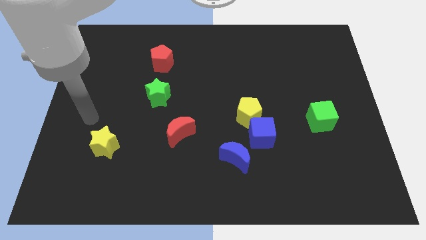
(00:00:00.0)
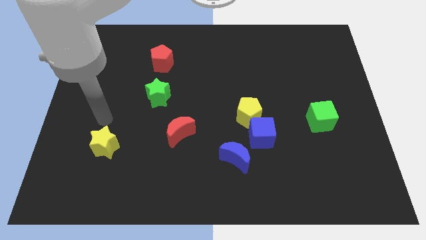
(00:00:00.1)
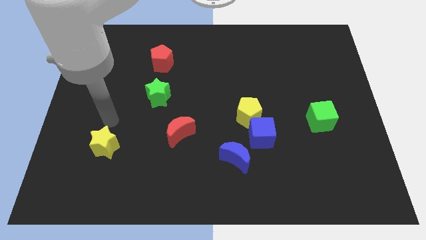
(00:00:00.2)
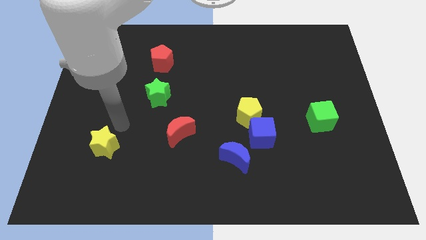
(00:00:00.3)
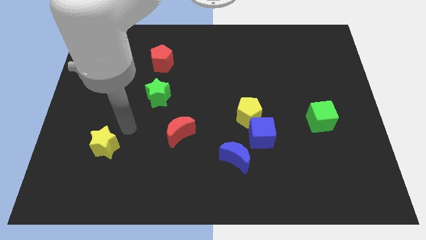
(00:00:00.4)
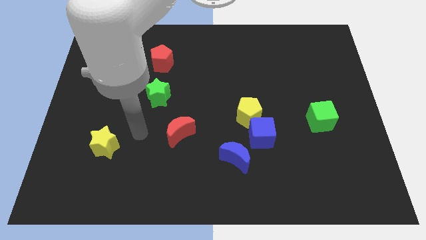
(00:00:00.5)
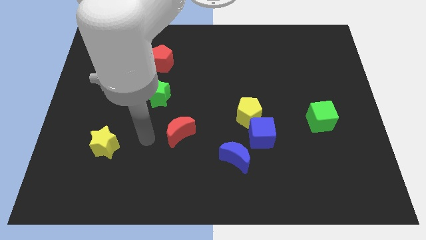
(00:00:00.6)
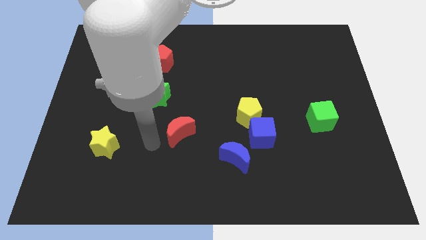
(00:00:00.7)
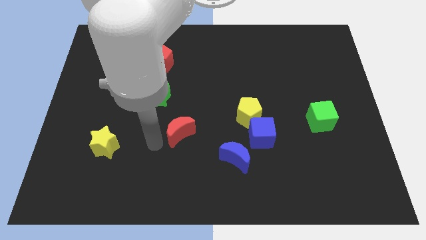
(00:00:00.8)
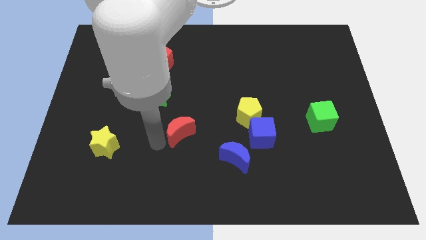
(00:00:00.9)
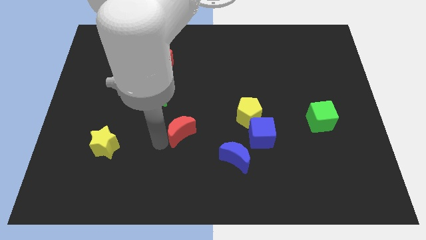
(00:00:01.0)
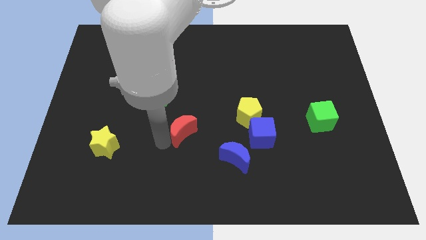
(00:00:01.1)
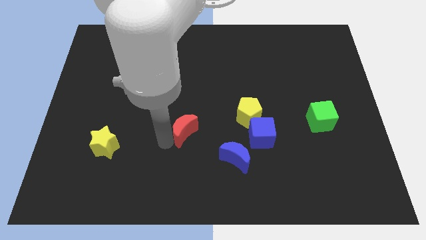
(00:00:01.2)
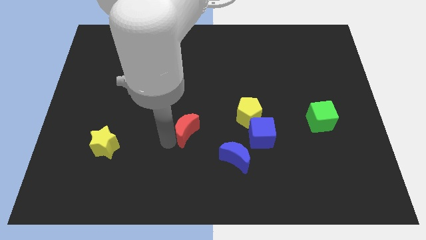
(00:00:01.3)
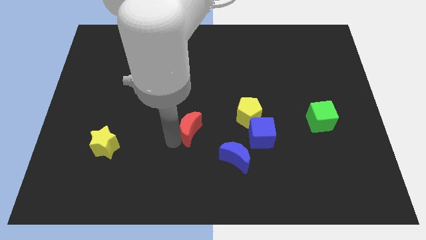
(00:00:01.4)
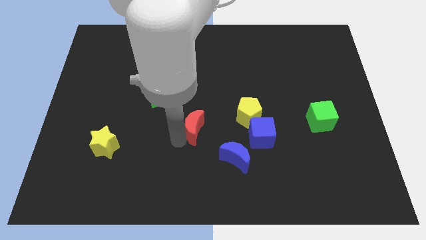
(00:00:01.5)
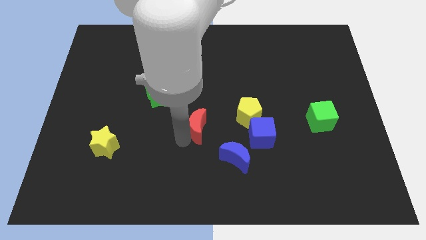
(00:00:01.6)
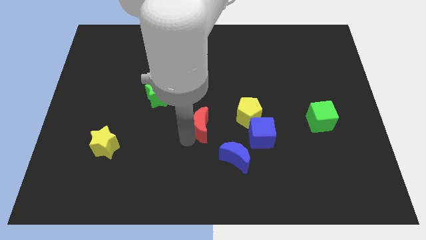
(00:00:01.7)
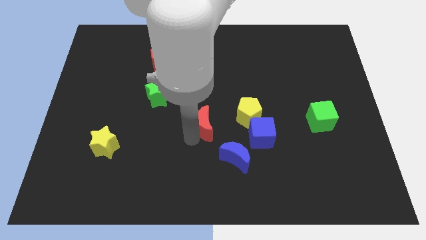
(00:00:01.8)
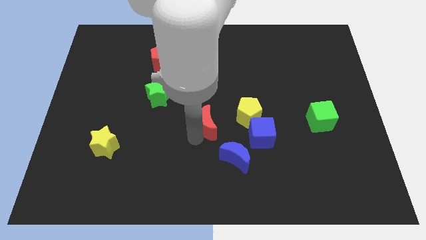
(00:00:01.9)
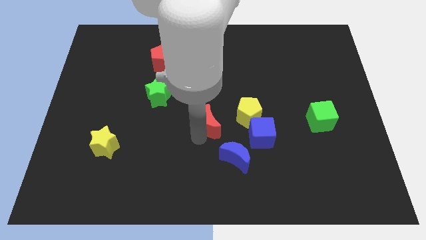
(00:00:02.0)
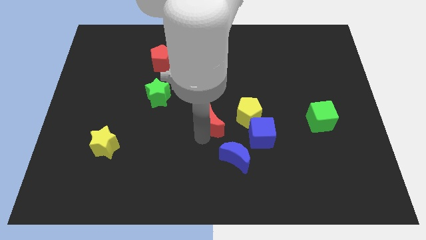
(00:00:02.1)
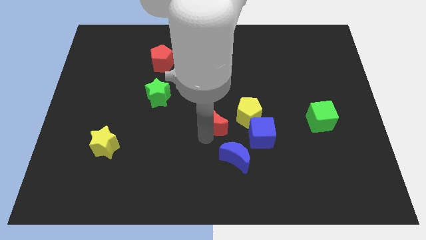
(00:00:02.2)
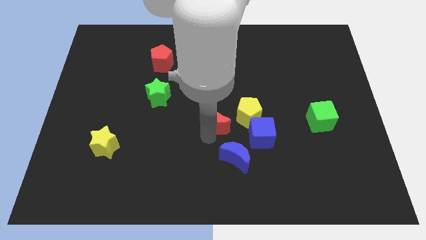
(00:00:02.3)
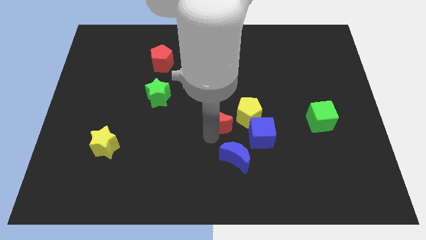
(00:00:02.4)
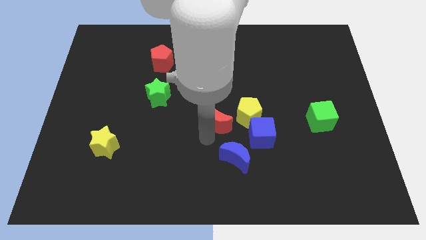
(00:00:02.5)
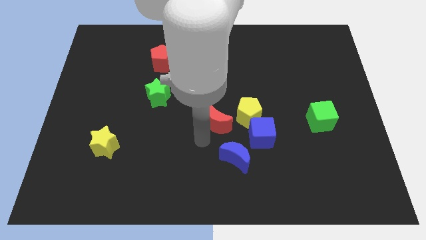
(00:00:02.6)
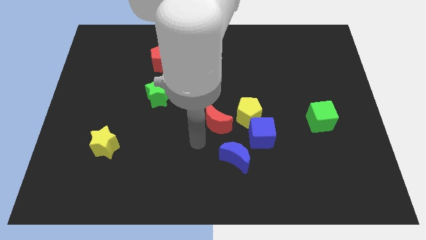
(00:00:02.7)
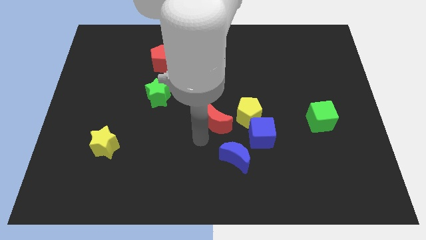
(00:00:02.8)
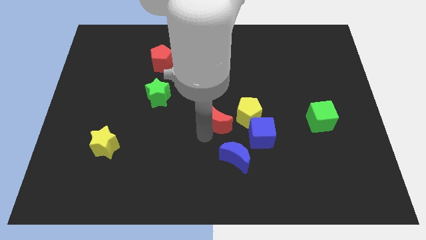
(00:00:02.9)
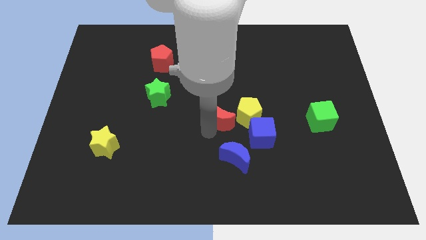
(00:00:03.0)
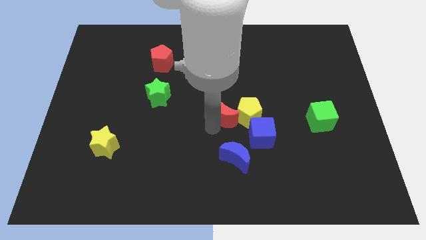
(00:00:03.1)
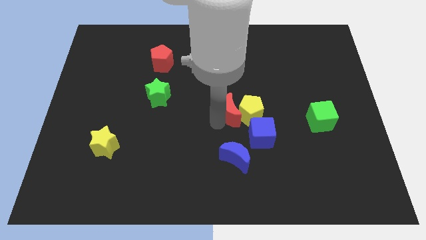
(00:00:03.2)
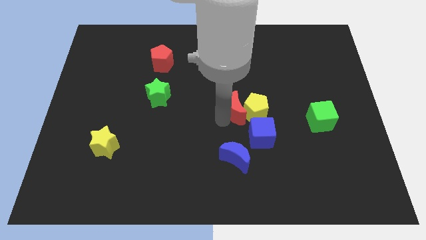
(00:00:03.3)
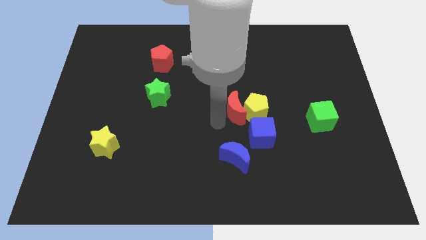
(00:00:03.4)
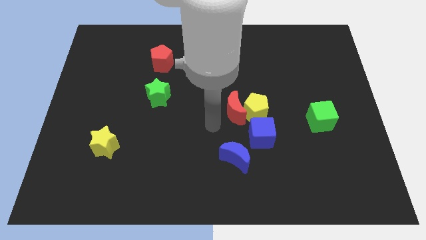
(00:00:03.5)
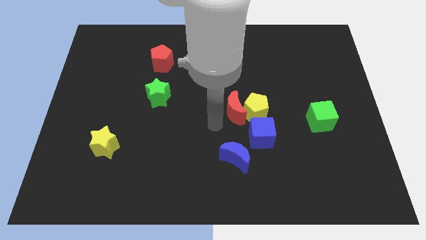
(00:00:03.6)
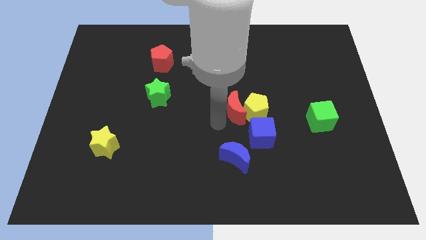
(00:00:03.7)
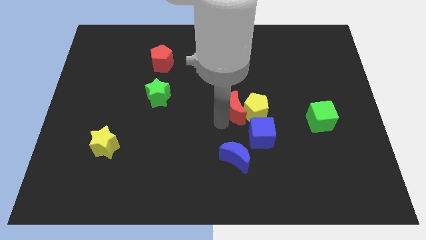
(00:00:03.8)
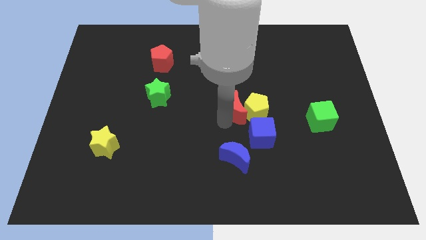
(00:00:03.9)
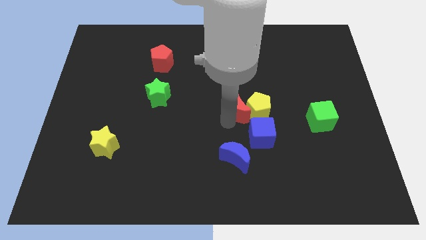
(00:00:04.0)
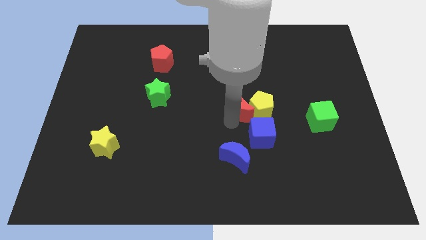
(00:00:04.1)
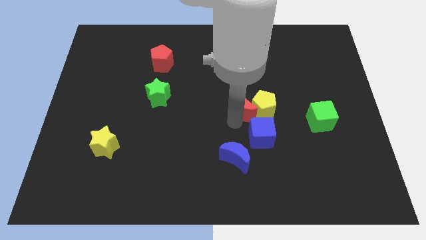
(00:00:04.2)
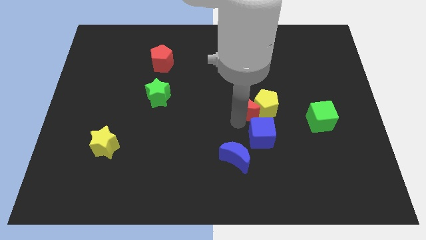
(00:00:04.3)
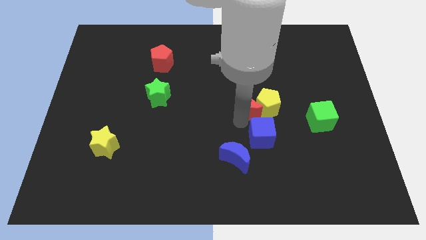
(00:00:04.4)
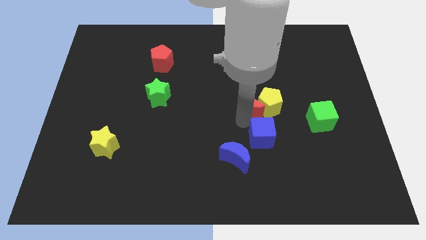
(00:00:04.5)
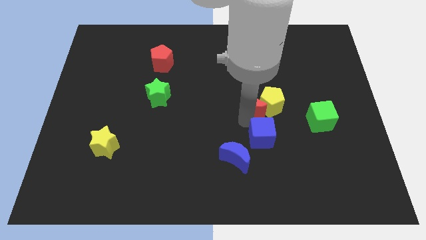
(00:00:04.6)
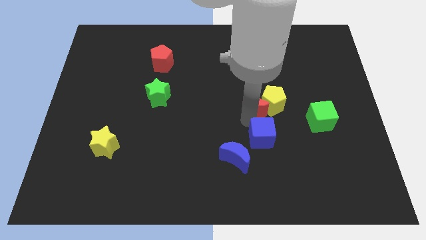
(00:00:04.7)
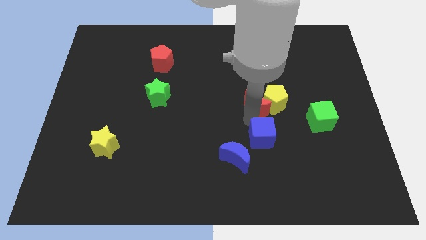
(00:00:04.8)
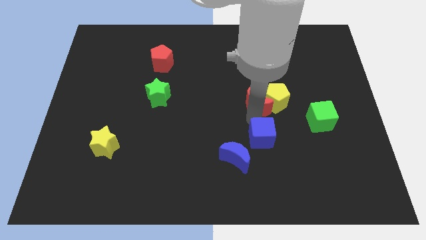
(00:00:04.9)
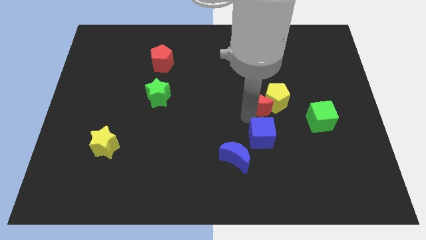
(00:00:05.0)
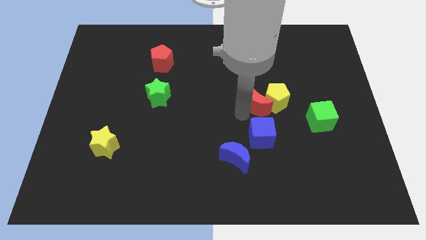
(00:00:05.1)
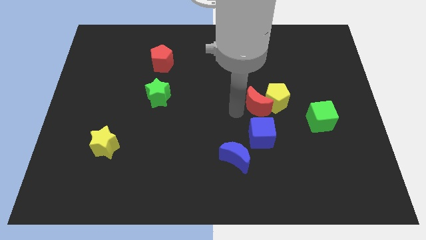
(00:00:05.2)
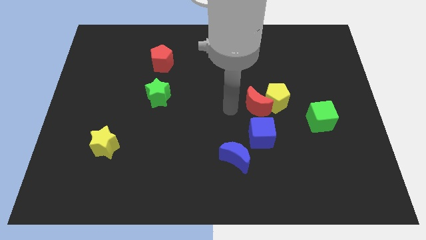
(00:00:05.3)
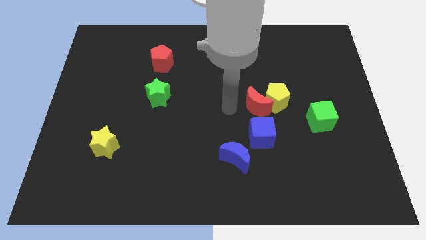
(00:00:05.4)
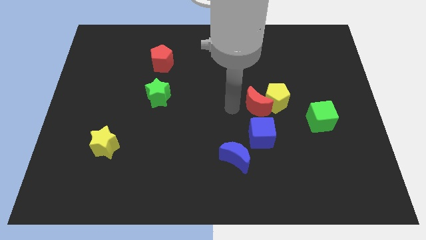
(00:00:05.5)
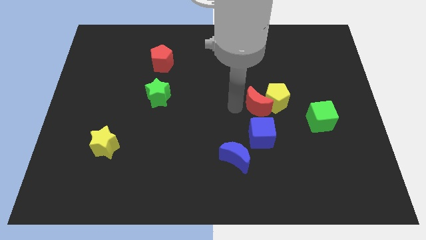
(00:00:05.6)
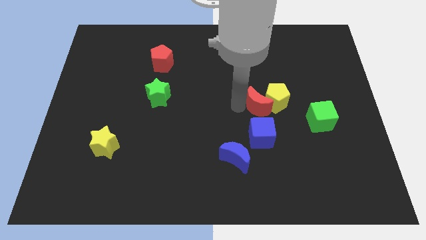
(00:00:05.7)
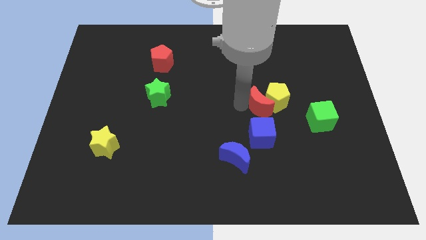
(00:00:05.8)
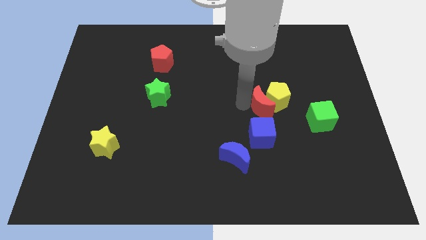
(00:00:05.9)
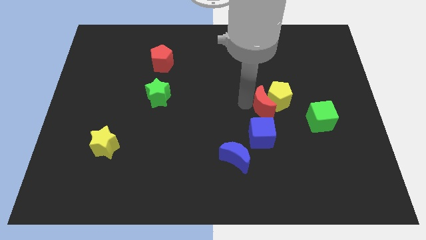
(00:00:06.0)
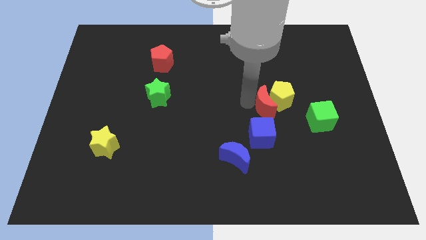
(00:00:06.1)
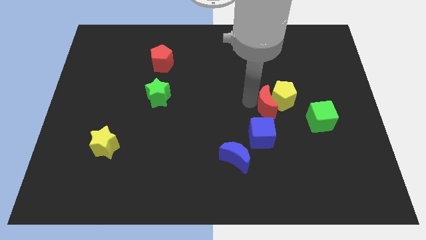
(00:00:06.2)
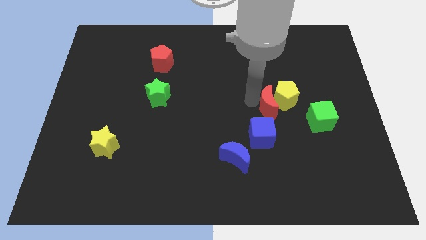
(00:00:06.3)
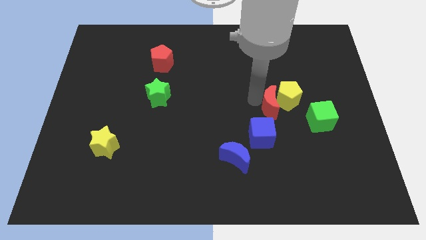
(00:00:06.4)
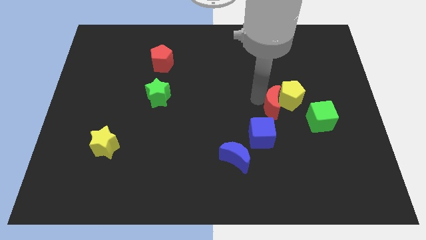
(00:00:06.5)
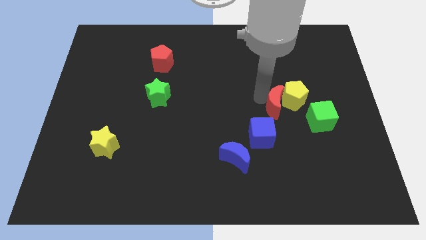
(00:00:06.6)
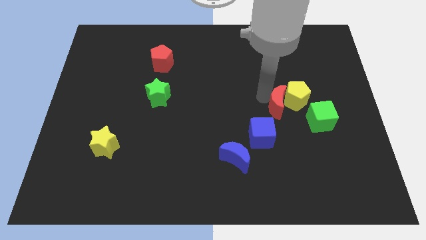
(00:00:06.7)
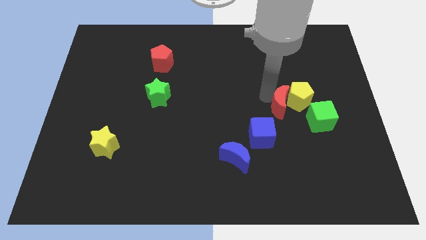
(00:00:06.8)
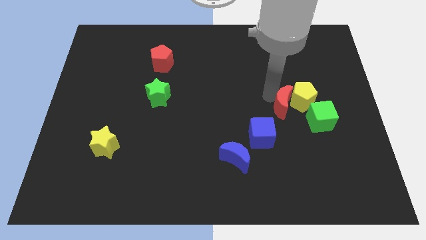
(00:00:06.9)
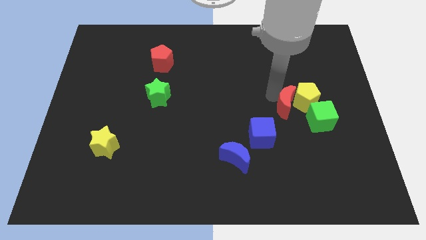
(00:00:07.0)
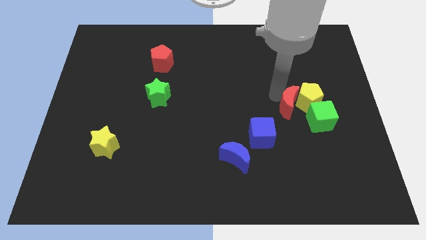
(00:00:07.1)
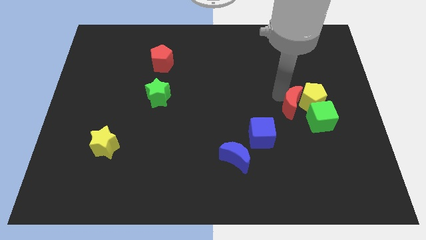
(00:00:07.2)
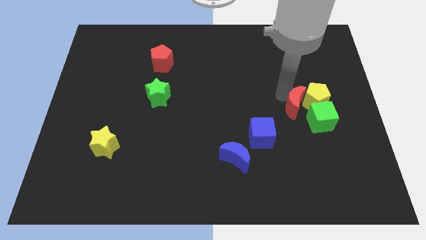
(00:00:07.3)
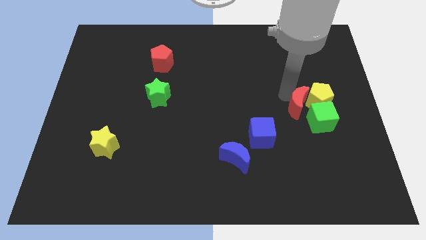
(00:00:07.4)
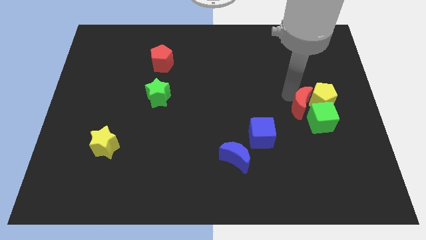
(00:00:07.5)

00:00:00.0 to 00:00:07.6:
push the red moon close to the green cube

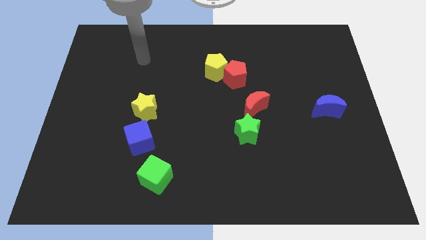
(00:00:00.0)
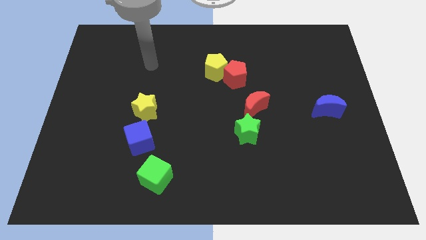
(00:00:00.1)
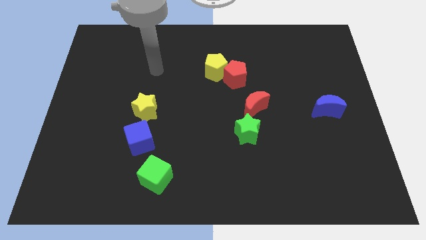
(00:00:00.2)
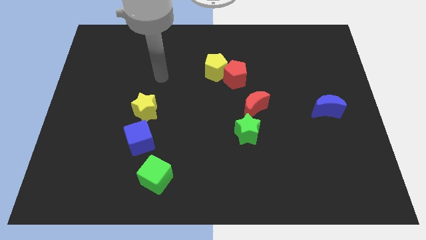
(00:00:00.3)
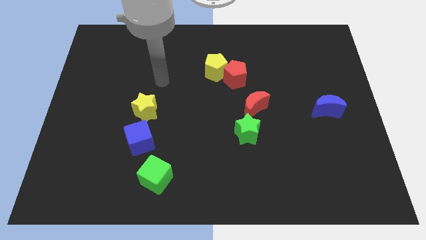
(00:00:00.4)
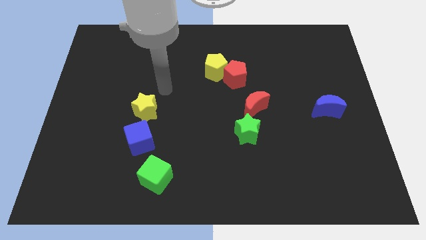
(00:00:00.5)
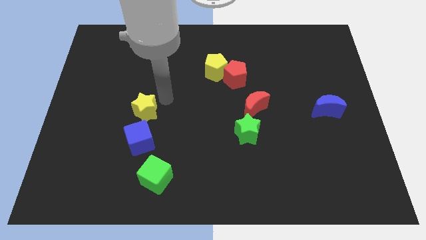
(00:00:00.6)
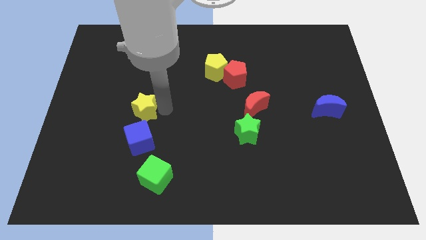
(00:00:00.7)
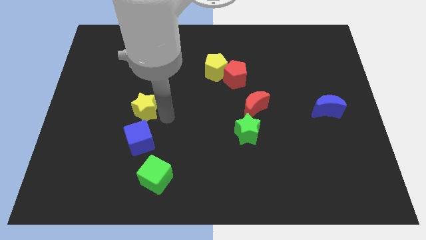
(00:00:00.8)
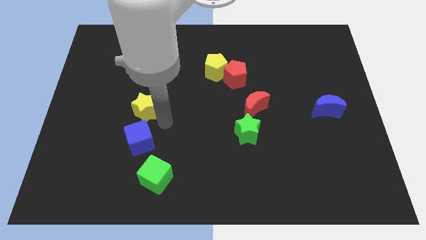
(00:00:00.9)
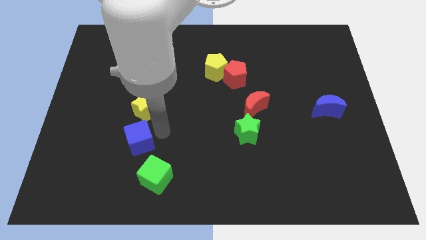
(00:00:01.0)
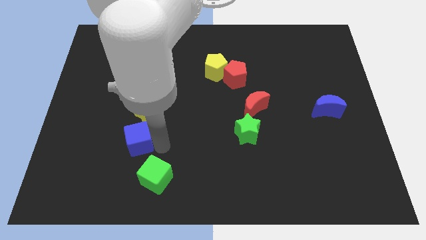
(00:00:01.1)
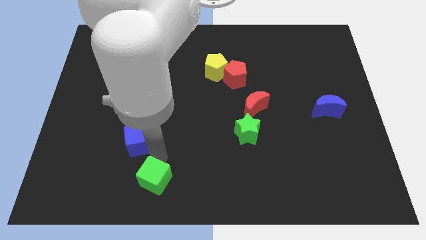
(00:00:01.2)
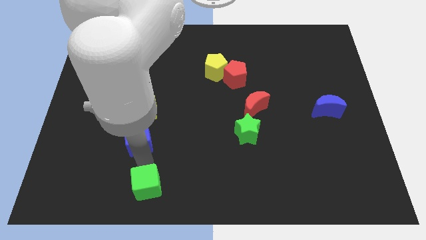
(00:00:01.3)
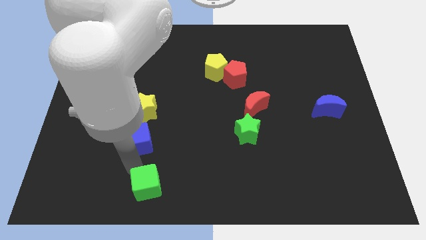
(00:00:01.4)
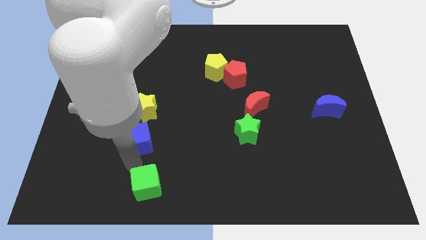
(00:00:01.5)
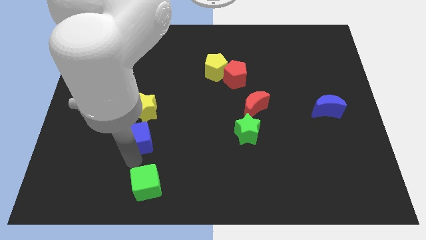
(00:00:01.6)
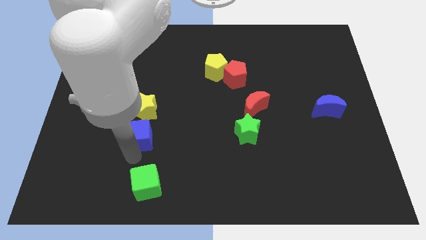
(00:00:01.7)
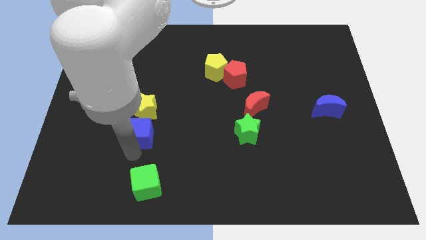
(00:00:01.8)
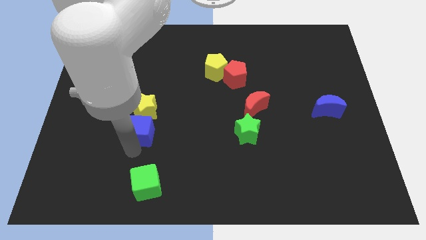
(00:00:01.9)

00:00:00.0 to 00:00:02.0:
push the blue cube close to the yellow star
